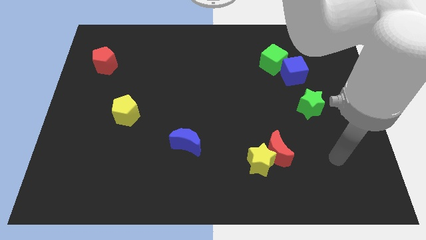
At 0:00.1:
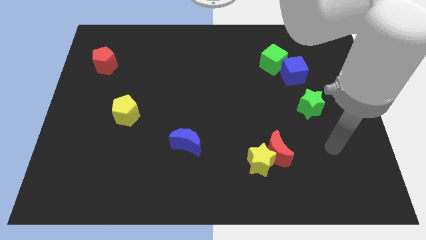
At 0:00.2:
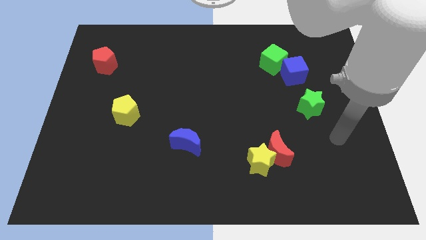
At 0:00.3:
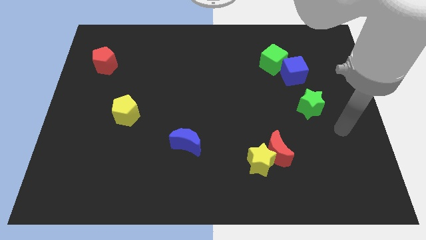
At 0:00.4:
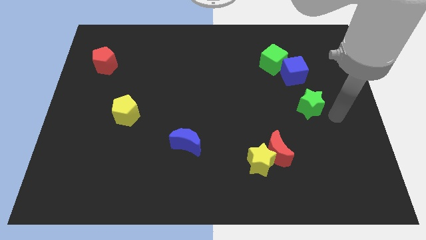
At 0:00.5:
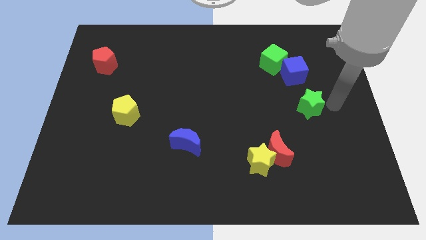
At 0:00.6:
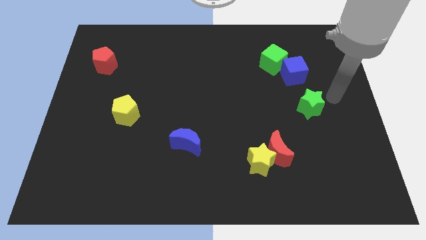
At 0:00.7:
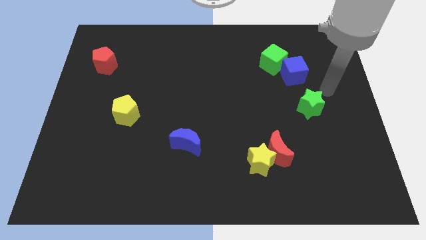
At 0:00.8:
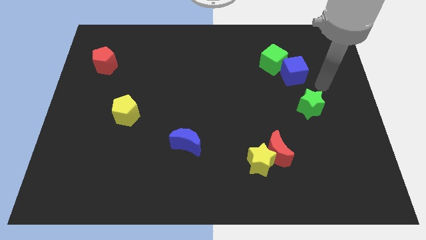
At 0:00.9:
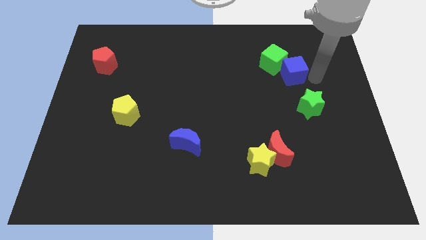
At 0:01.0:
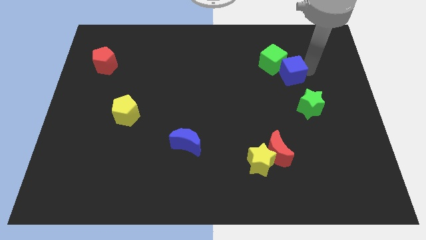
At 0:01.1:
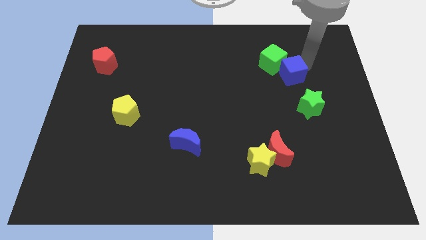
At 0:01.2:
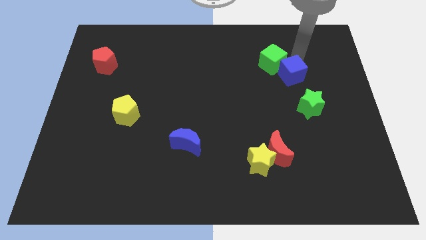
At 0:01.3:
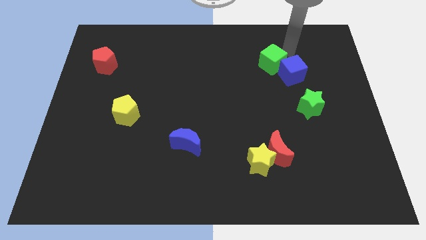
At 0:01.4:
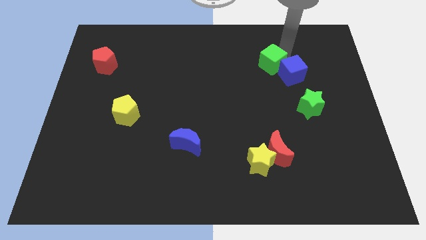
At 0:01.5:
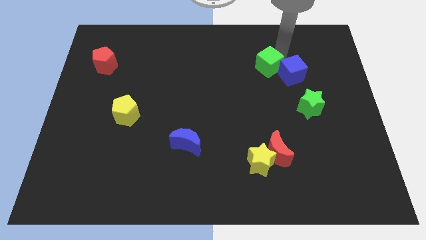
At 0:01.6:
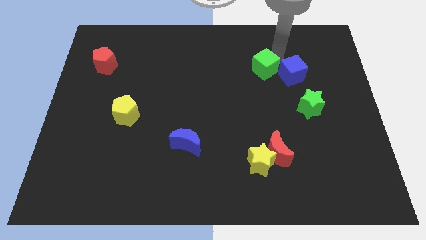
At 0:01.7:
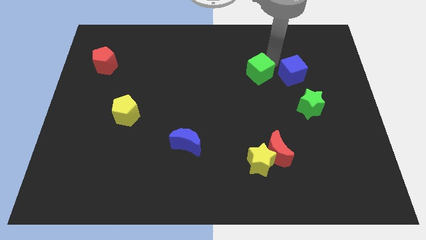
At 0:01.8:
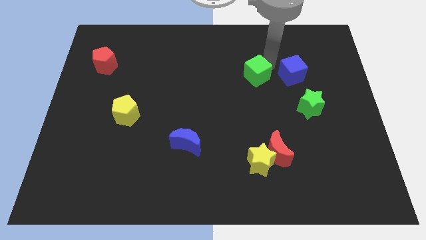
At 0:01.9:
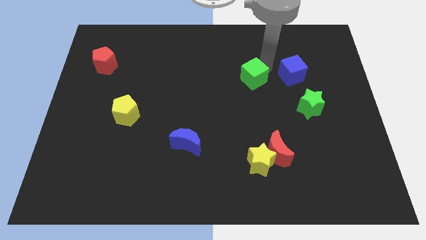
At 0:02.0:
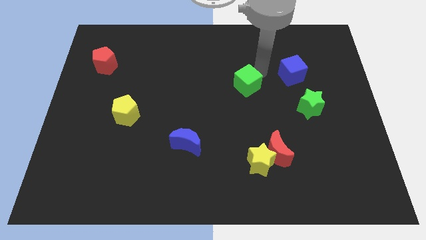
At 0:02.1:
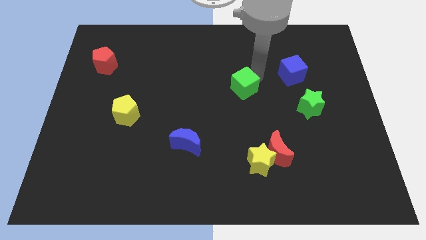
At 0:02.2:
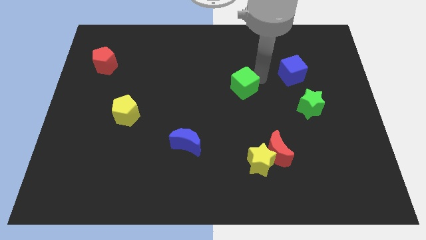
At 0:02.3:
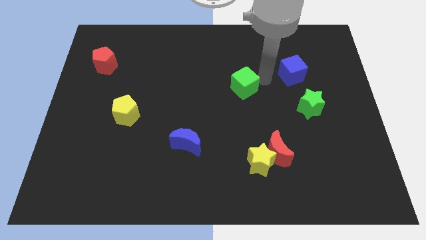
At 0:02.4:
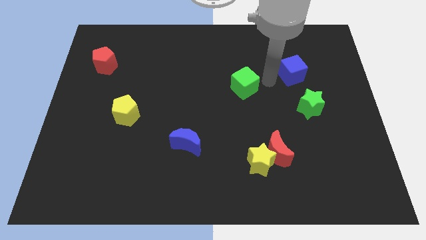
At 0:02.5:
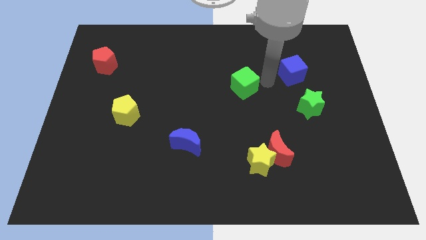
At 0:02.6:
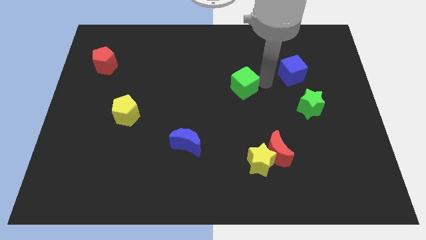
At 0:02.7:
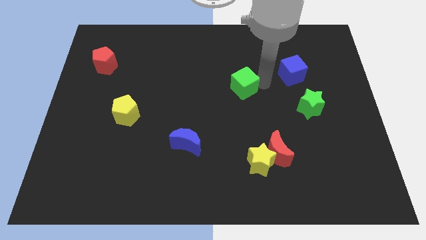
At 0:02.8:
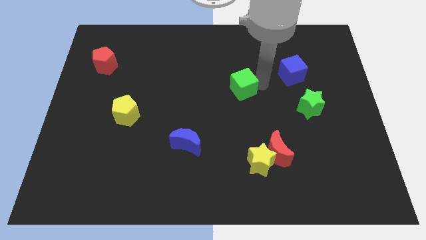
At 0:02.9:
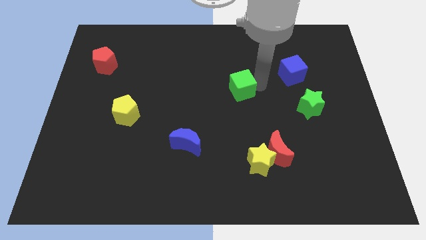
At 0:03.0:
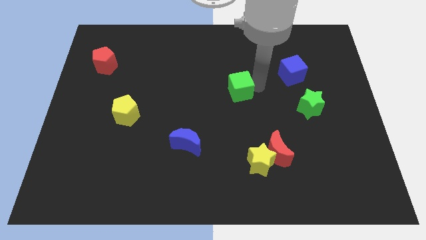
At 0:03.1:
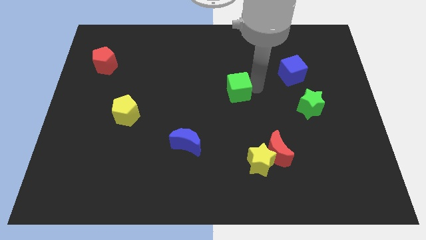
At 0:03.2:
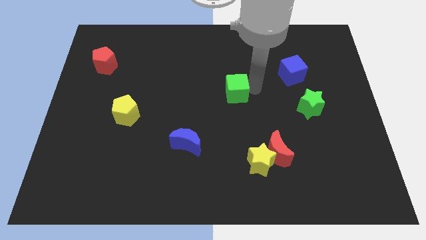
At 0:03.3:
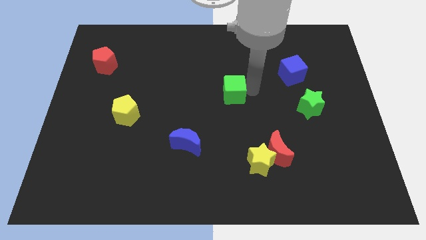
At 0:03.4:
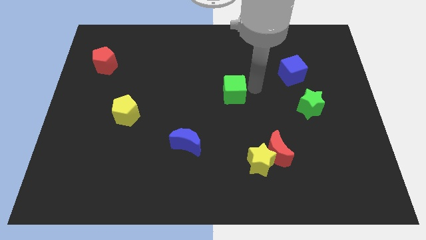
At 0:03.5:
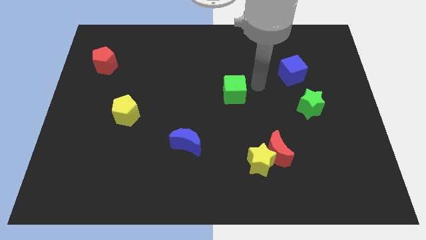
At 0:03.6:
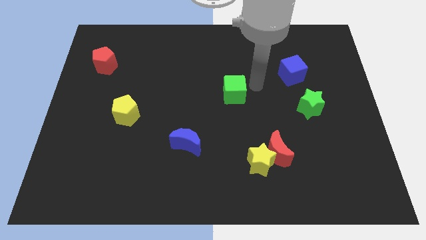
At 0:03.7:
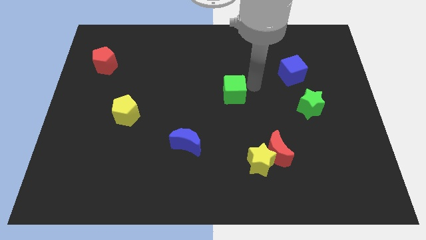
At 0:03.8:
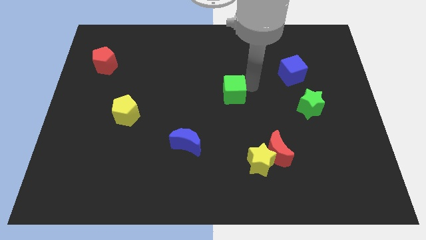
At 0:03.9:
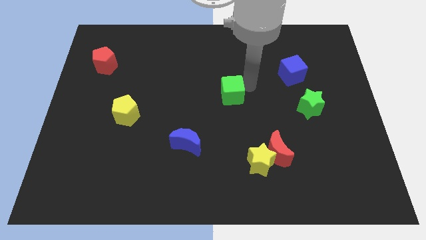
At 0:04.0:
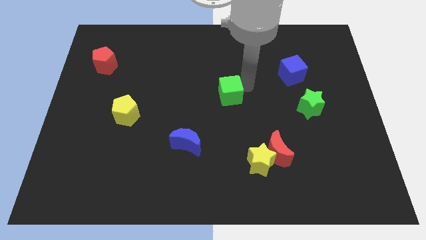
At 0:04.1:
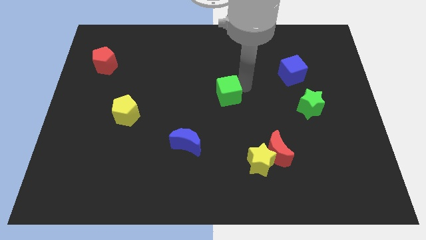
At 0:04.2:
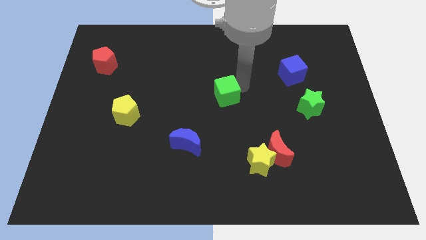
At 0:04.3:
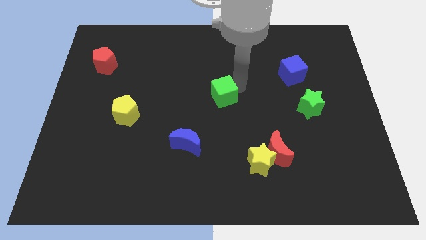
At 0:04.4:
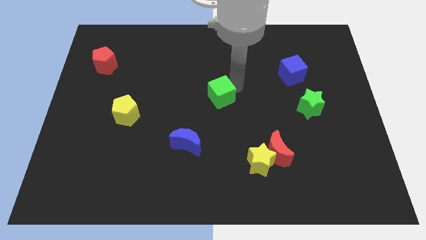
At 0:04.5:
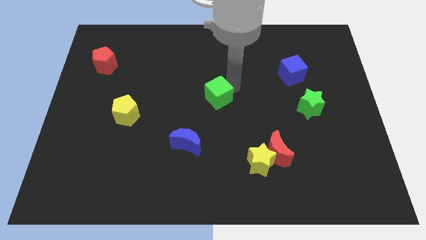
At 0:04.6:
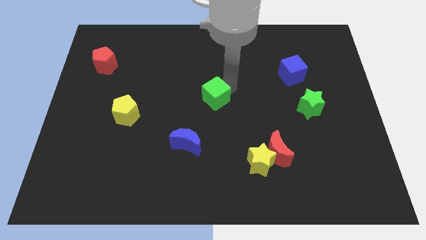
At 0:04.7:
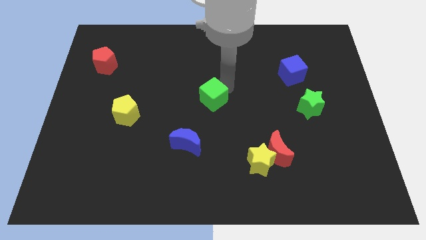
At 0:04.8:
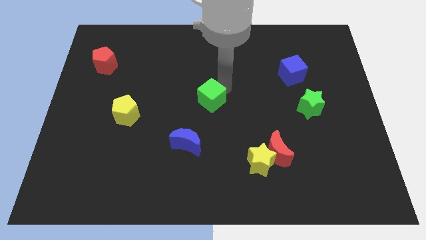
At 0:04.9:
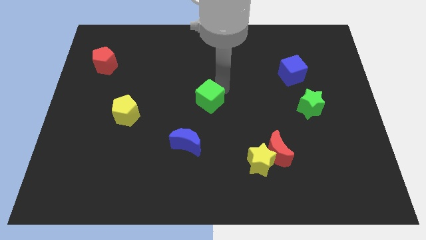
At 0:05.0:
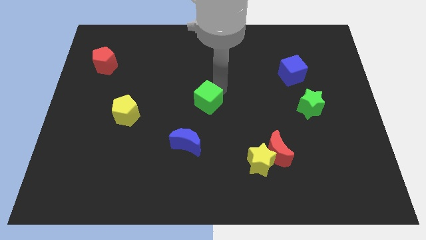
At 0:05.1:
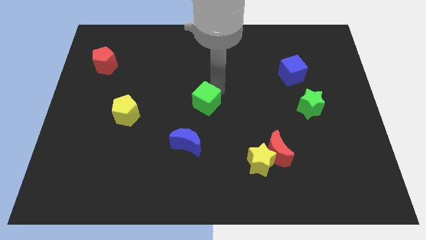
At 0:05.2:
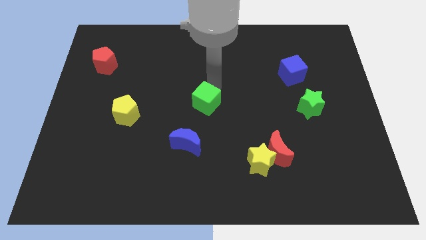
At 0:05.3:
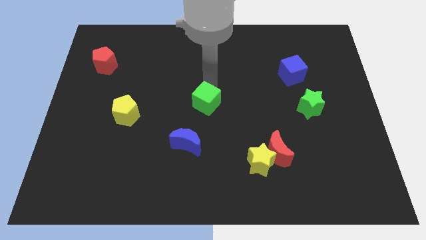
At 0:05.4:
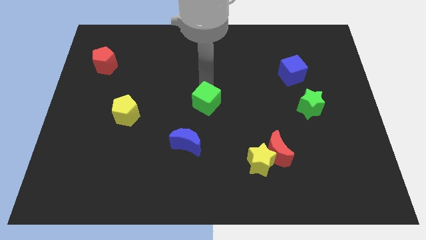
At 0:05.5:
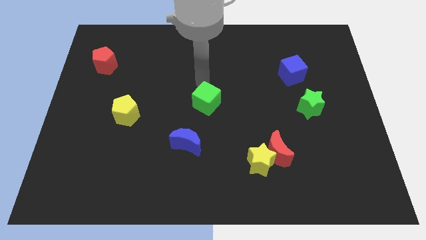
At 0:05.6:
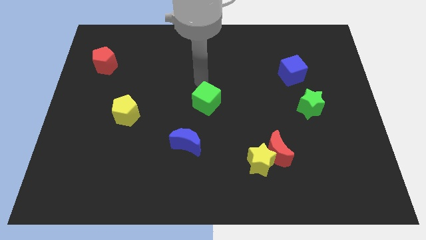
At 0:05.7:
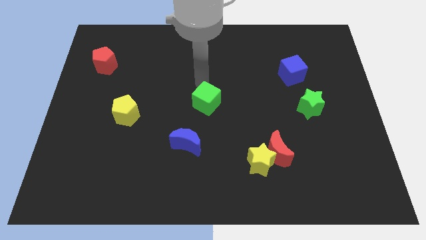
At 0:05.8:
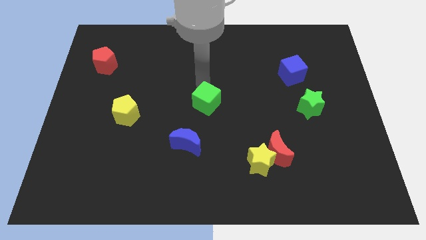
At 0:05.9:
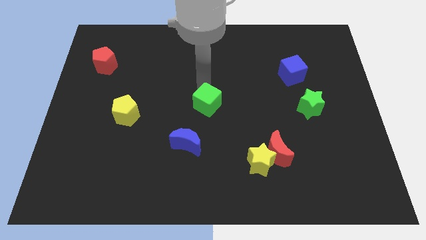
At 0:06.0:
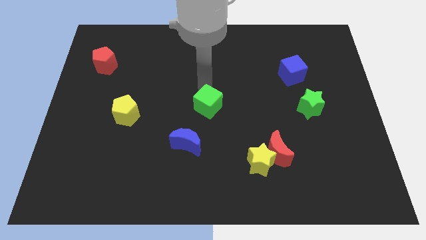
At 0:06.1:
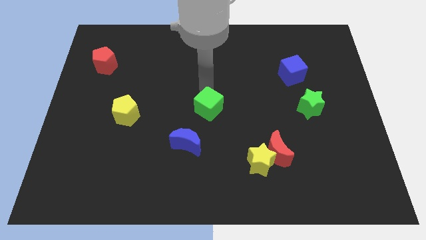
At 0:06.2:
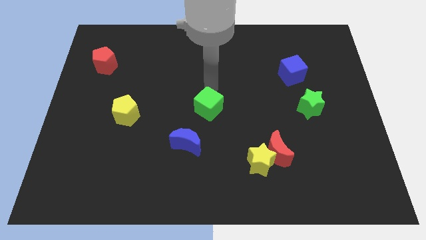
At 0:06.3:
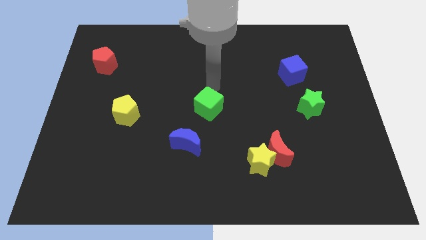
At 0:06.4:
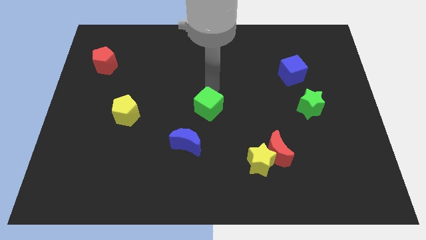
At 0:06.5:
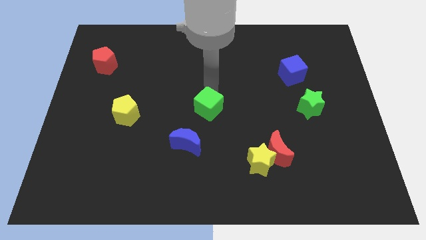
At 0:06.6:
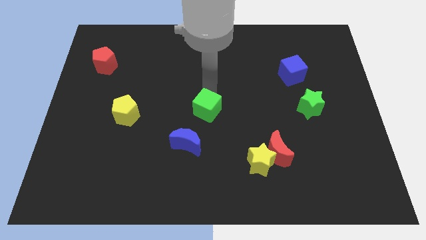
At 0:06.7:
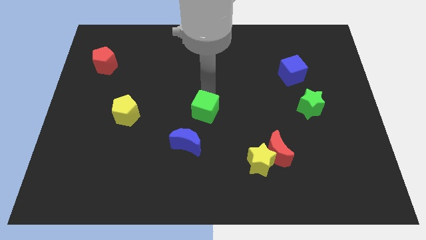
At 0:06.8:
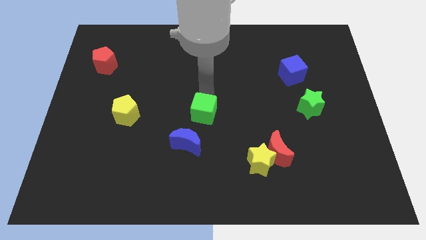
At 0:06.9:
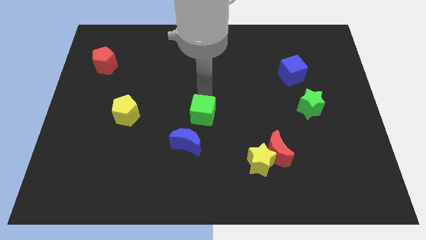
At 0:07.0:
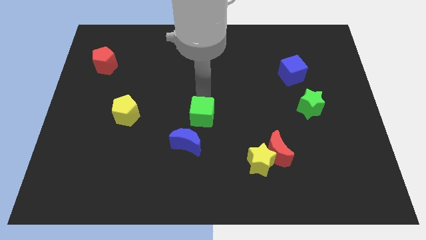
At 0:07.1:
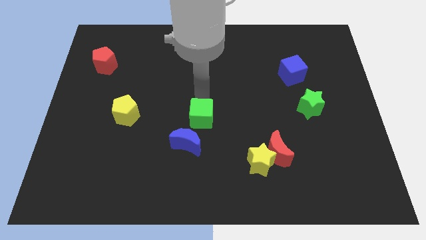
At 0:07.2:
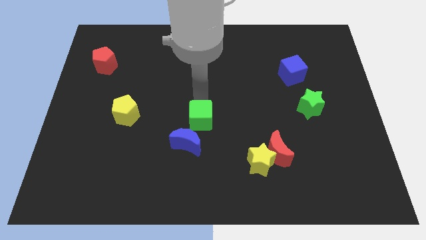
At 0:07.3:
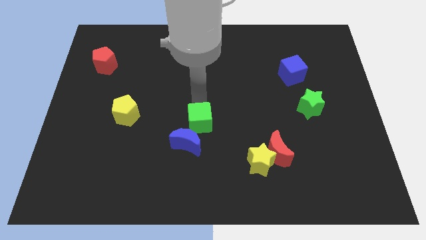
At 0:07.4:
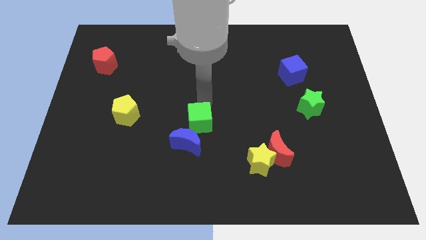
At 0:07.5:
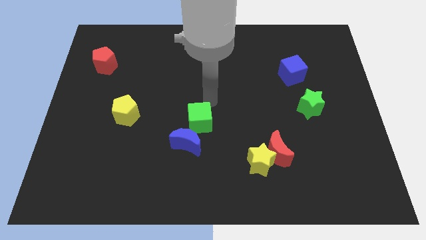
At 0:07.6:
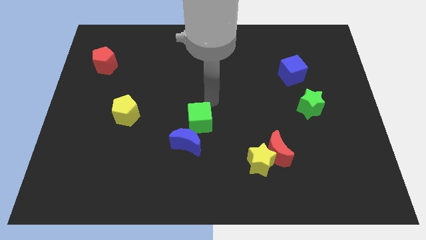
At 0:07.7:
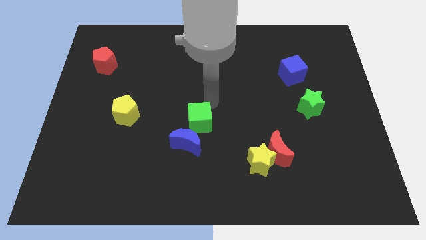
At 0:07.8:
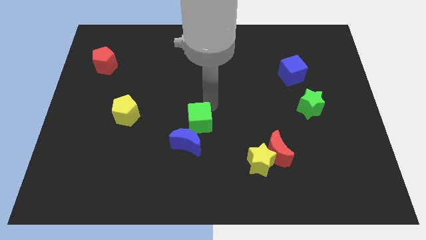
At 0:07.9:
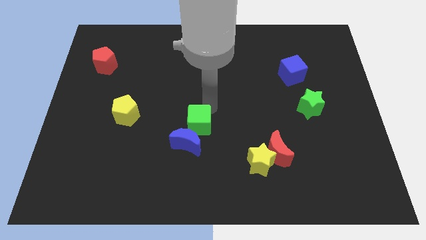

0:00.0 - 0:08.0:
push the green cube towards the blue moon
